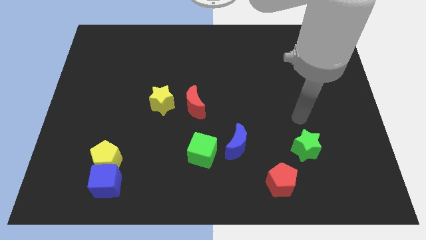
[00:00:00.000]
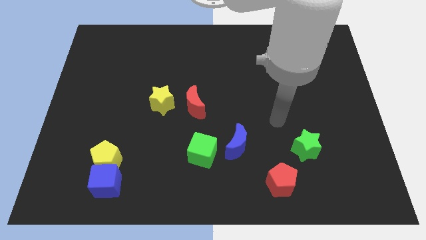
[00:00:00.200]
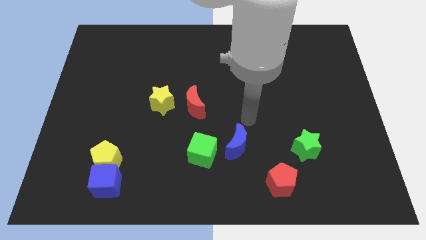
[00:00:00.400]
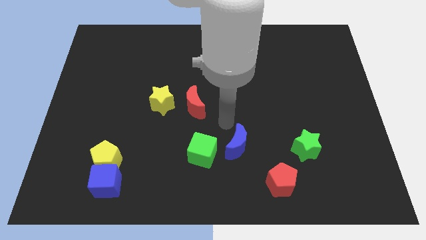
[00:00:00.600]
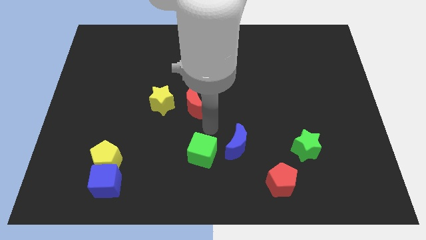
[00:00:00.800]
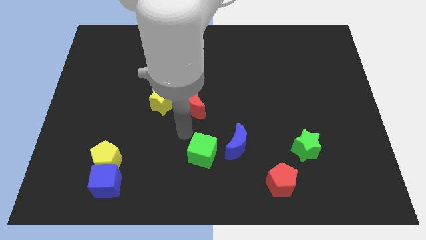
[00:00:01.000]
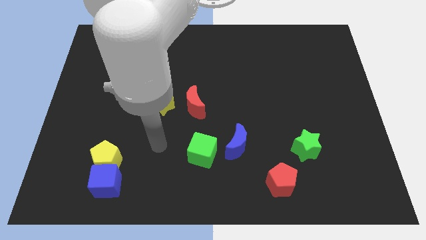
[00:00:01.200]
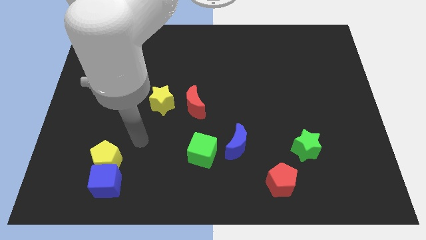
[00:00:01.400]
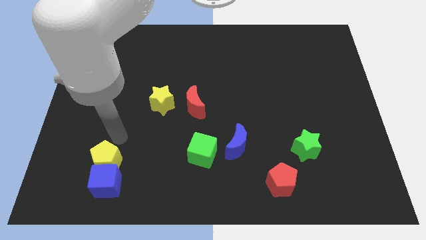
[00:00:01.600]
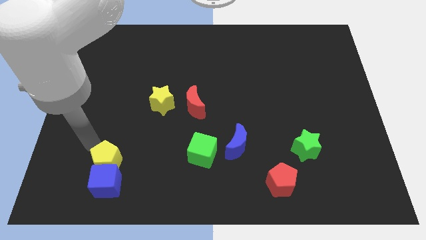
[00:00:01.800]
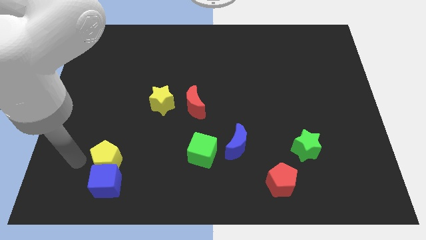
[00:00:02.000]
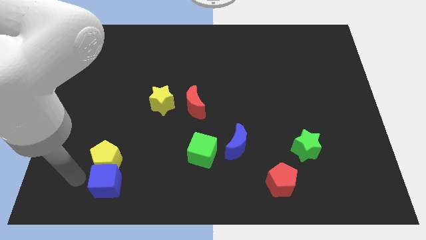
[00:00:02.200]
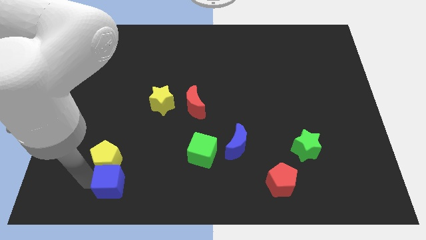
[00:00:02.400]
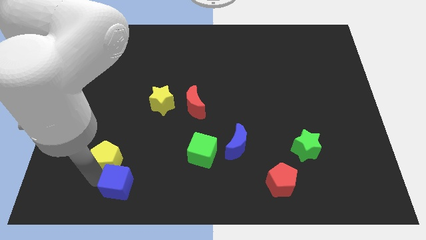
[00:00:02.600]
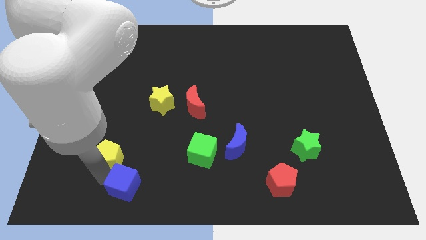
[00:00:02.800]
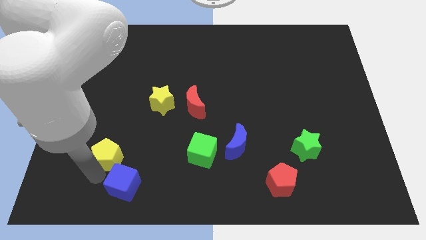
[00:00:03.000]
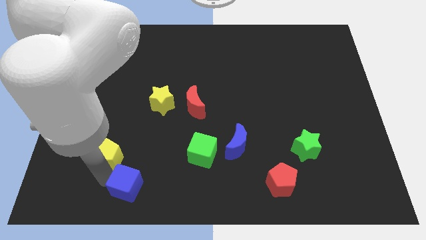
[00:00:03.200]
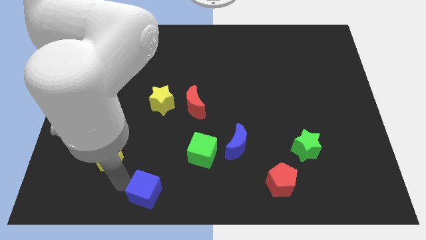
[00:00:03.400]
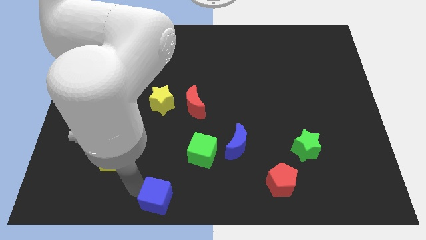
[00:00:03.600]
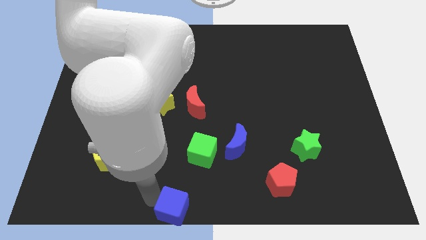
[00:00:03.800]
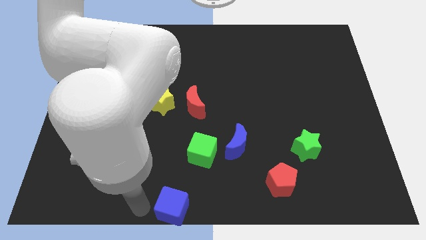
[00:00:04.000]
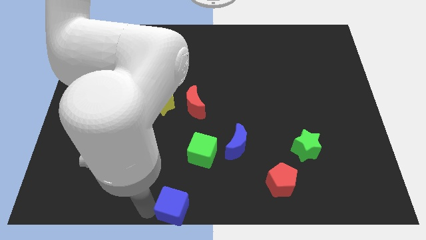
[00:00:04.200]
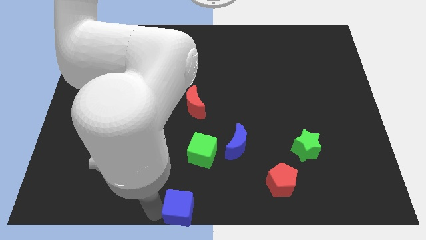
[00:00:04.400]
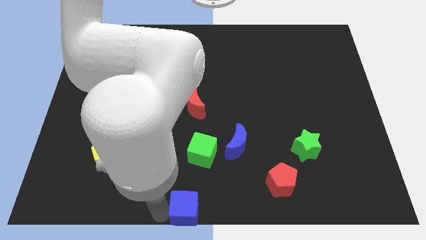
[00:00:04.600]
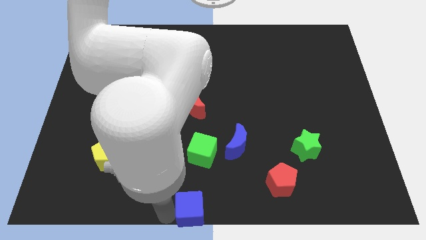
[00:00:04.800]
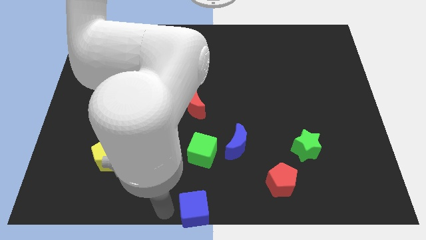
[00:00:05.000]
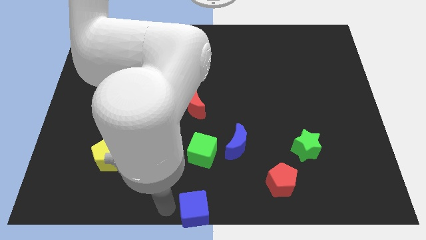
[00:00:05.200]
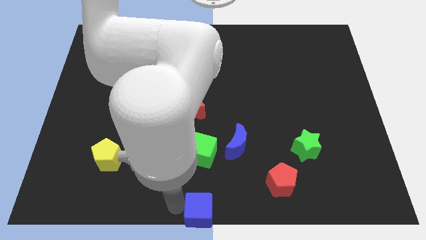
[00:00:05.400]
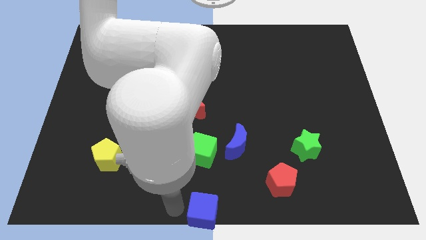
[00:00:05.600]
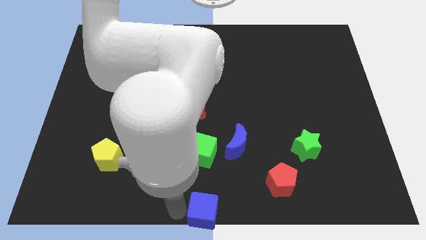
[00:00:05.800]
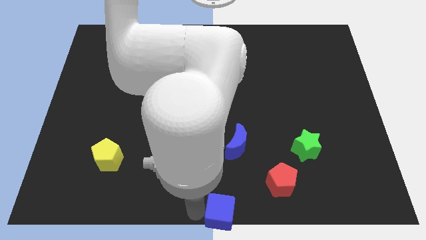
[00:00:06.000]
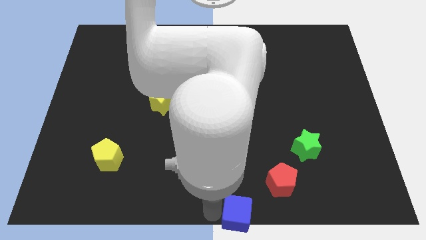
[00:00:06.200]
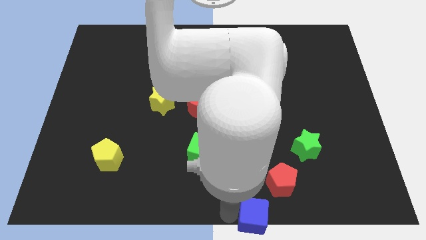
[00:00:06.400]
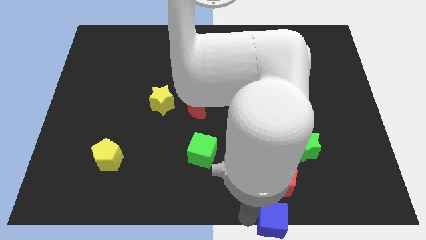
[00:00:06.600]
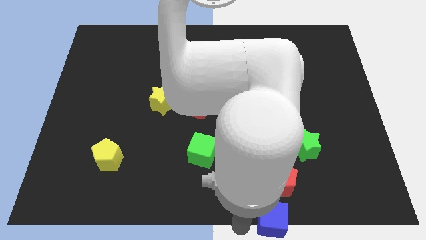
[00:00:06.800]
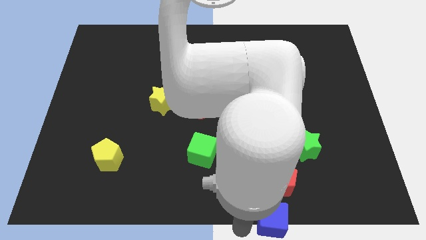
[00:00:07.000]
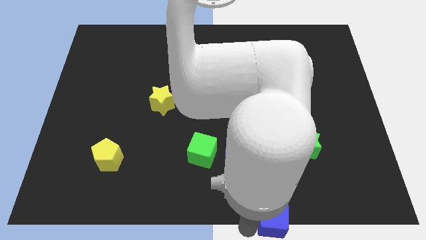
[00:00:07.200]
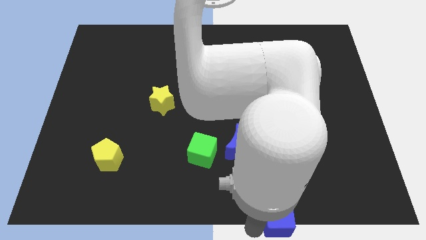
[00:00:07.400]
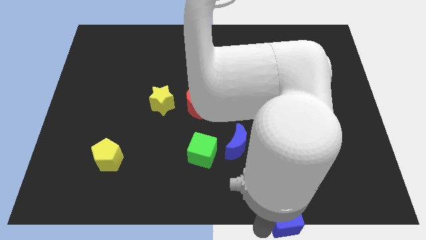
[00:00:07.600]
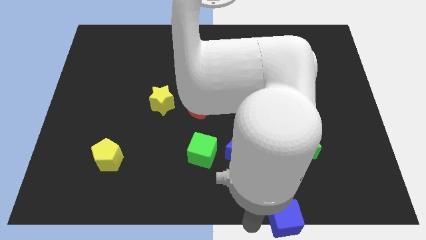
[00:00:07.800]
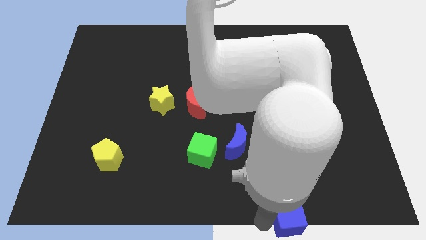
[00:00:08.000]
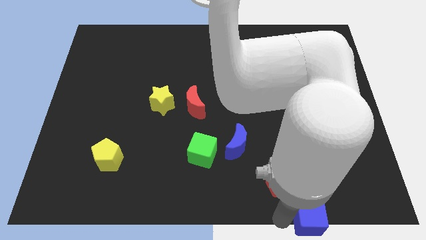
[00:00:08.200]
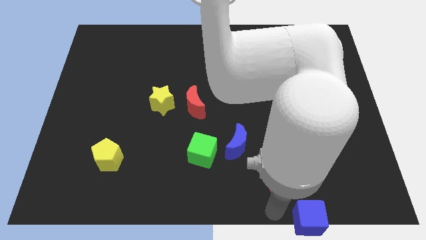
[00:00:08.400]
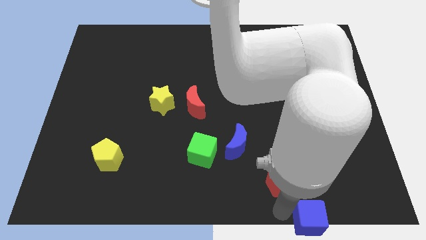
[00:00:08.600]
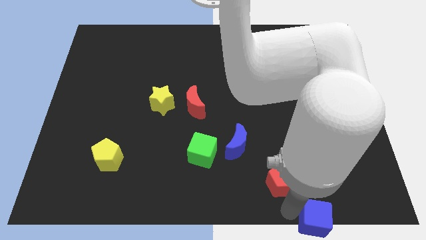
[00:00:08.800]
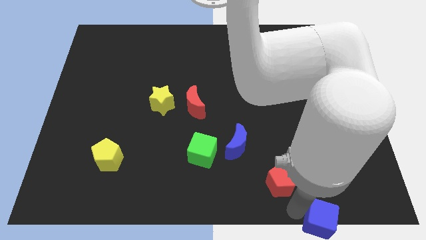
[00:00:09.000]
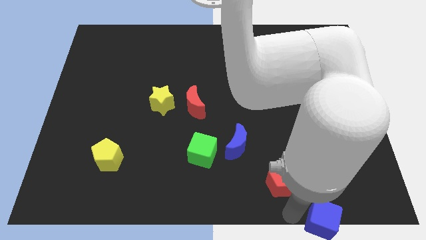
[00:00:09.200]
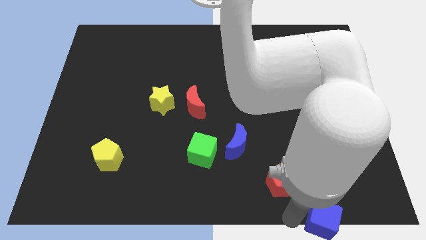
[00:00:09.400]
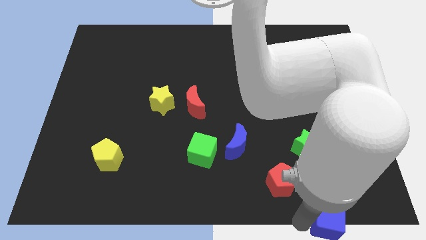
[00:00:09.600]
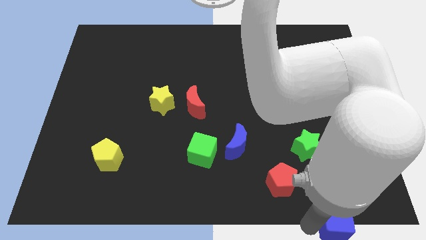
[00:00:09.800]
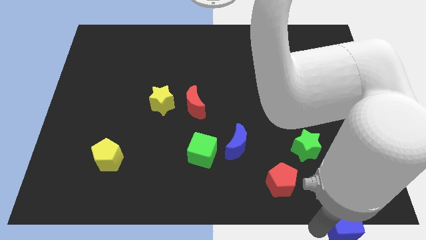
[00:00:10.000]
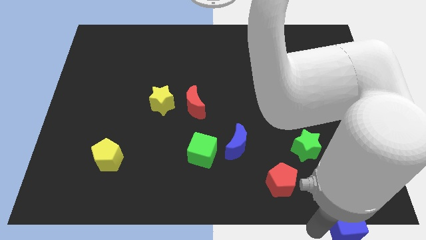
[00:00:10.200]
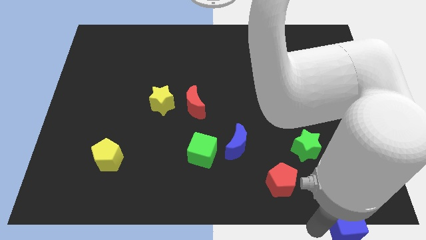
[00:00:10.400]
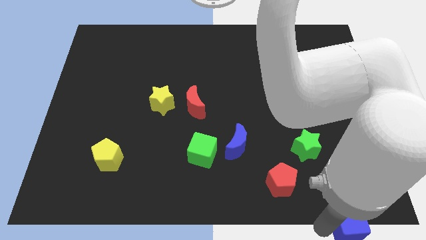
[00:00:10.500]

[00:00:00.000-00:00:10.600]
put the blue cube to the lower right corner
